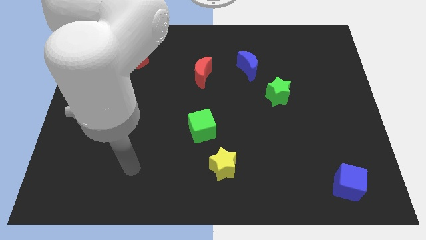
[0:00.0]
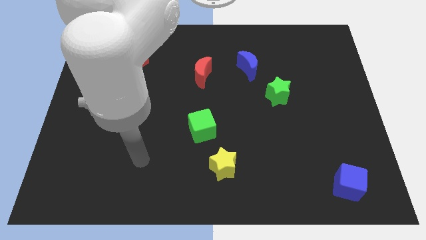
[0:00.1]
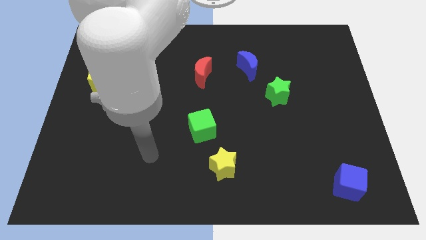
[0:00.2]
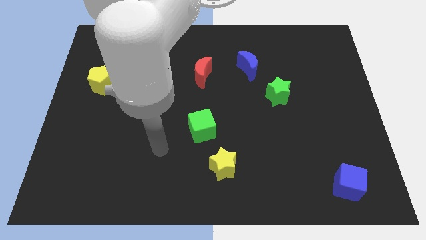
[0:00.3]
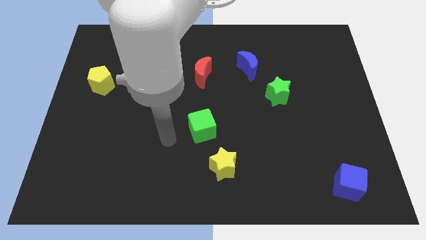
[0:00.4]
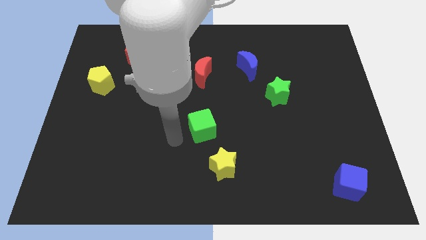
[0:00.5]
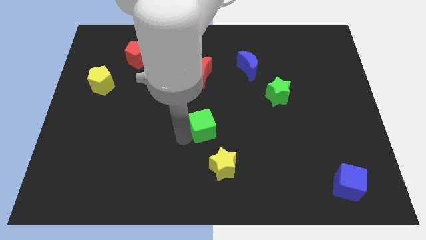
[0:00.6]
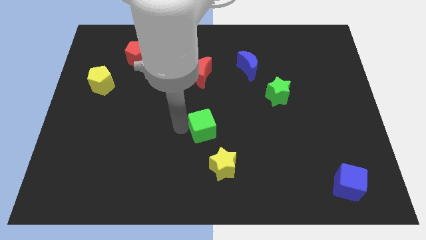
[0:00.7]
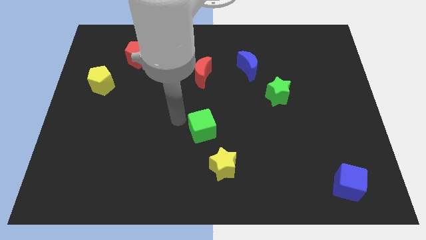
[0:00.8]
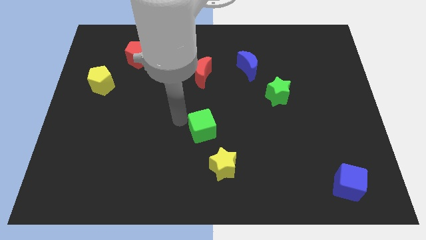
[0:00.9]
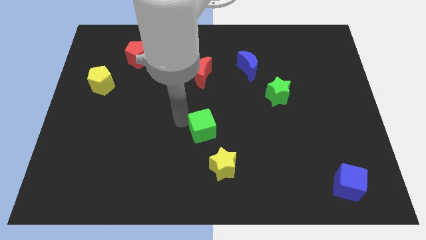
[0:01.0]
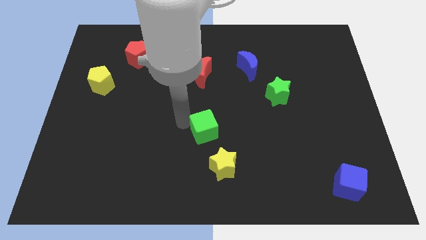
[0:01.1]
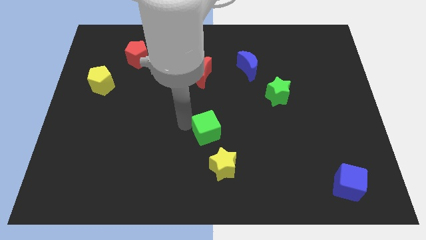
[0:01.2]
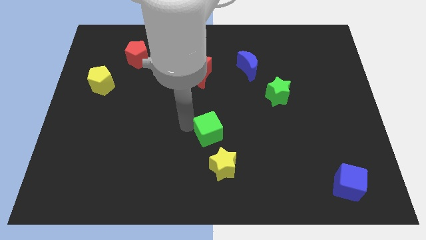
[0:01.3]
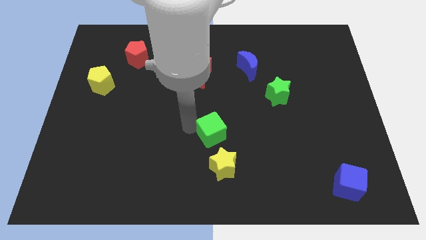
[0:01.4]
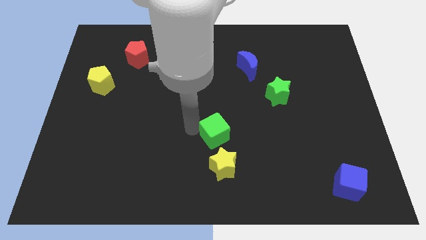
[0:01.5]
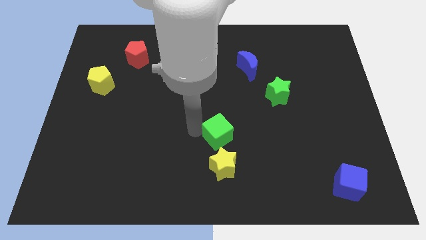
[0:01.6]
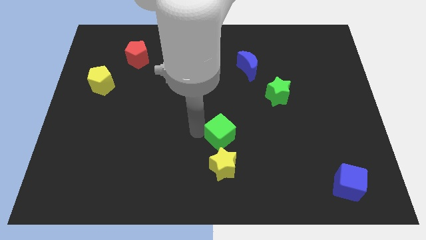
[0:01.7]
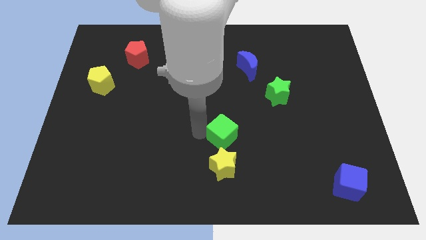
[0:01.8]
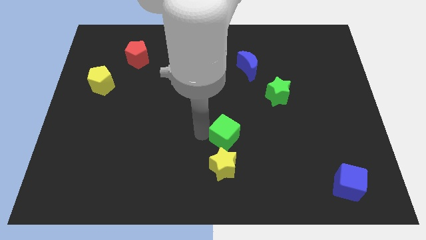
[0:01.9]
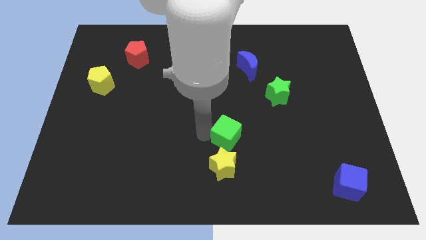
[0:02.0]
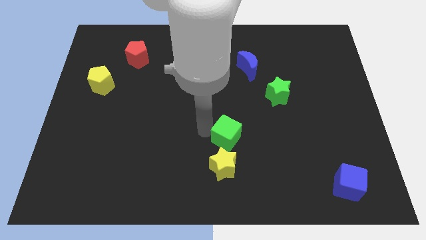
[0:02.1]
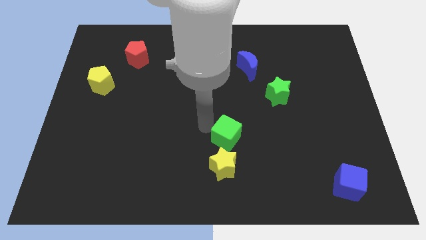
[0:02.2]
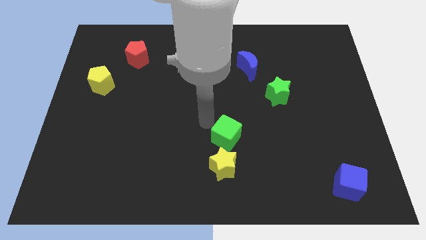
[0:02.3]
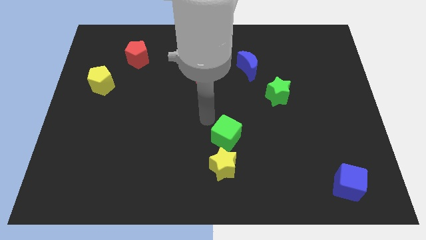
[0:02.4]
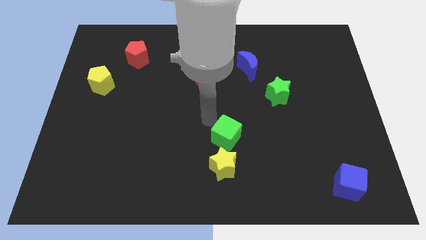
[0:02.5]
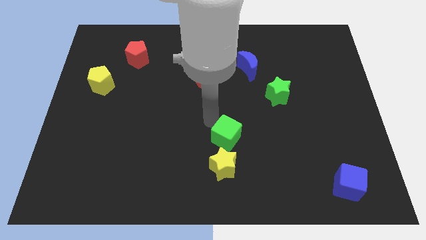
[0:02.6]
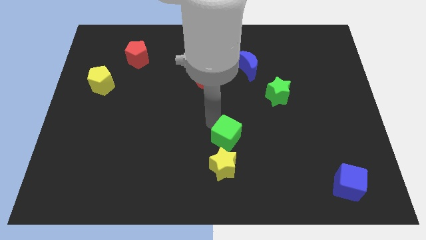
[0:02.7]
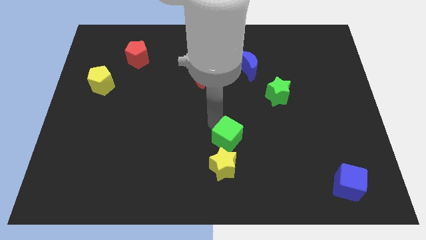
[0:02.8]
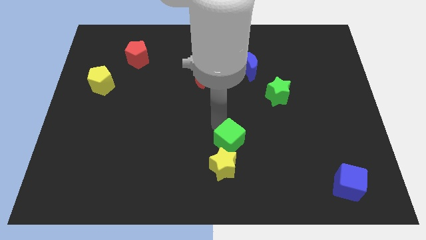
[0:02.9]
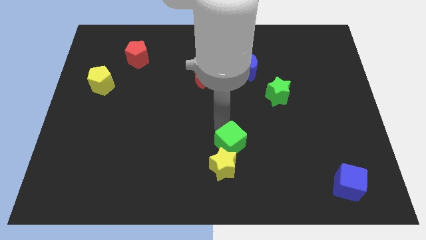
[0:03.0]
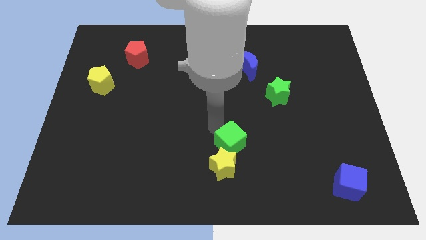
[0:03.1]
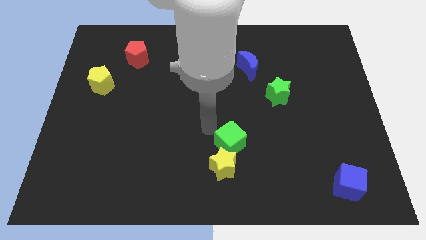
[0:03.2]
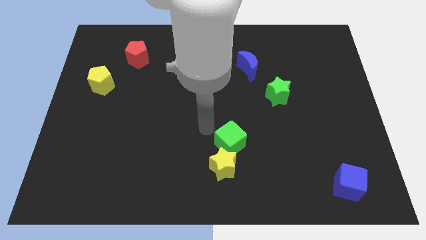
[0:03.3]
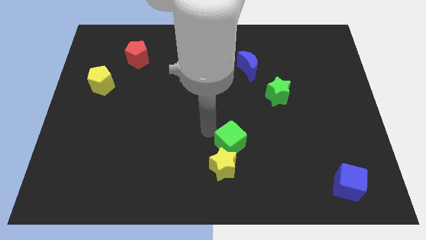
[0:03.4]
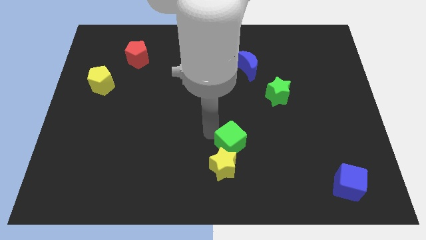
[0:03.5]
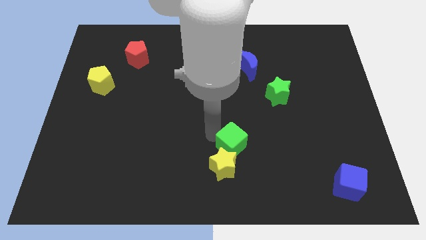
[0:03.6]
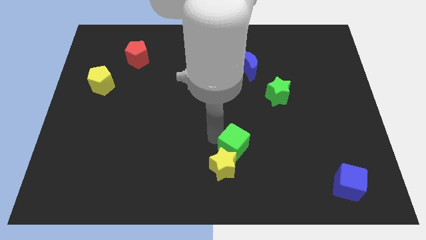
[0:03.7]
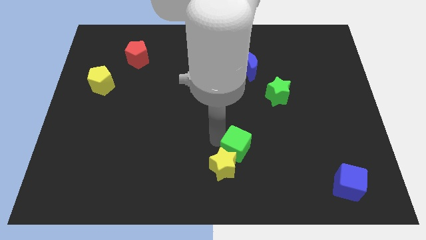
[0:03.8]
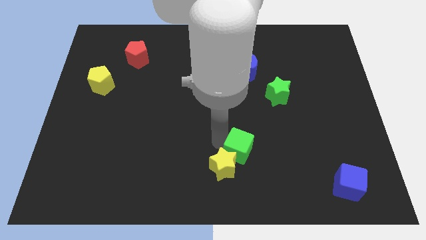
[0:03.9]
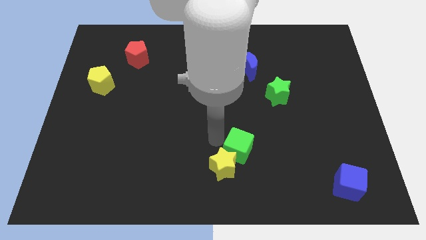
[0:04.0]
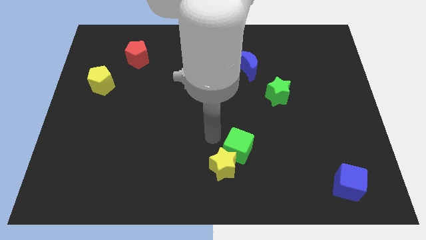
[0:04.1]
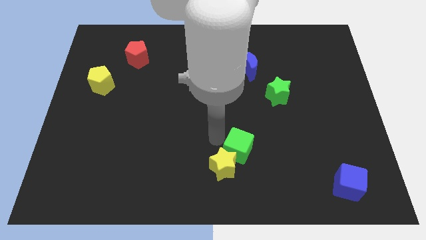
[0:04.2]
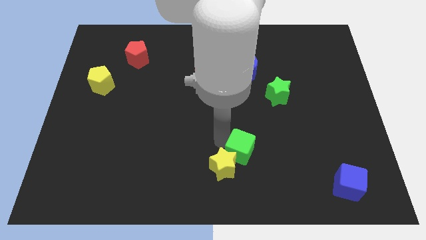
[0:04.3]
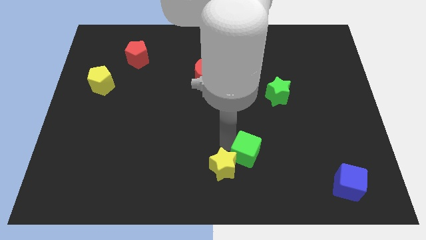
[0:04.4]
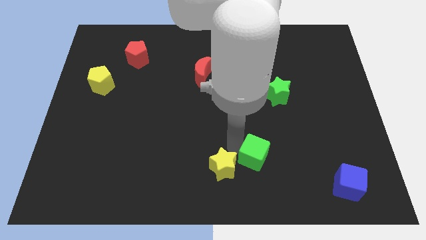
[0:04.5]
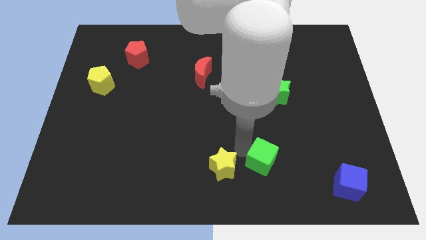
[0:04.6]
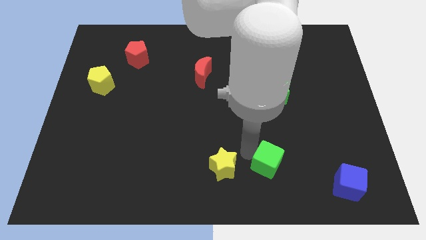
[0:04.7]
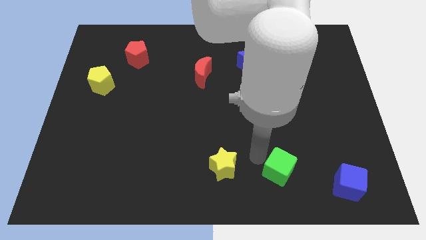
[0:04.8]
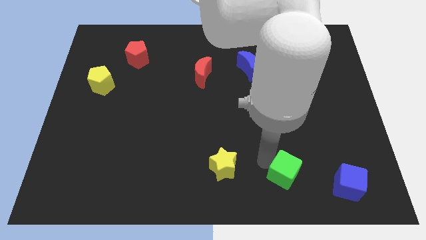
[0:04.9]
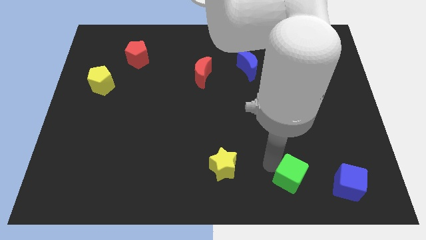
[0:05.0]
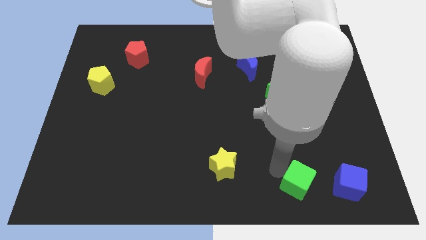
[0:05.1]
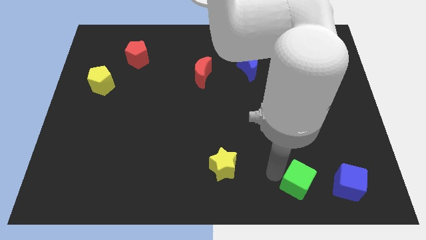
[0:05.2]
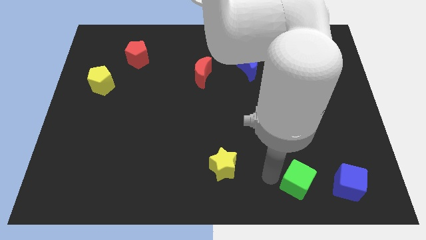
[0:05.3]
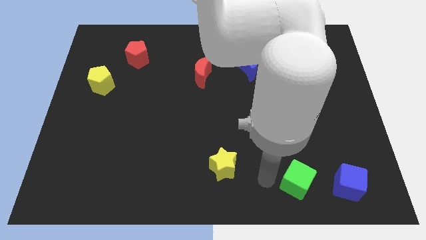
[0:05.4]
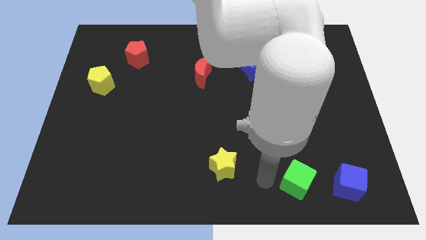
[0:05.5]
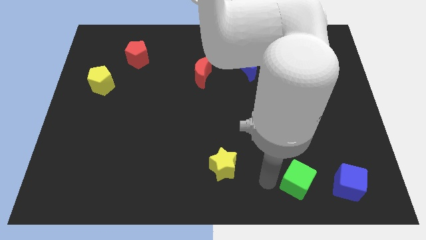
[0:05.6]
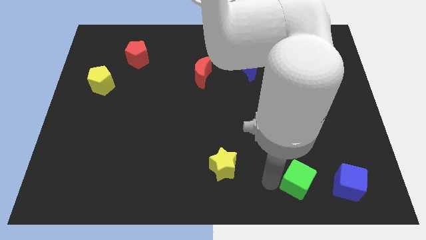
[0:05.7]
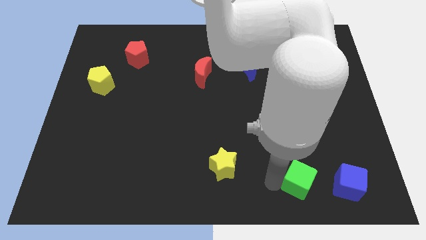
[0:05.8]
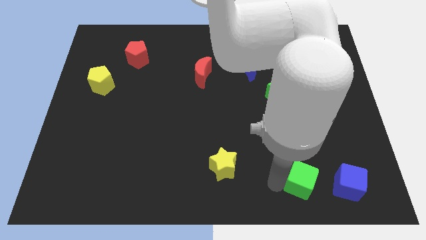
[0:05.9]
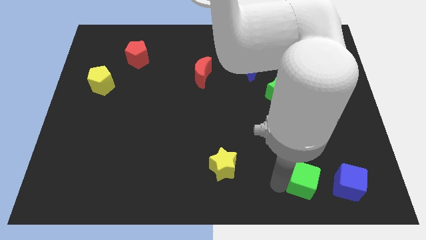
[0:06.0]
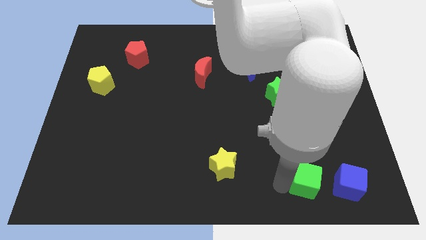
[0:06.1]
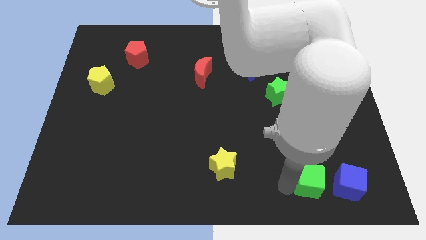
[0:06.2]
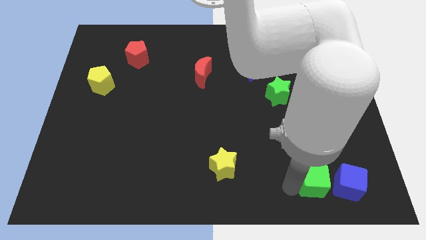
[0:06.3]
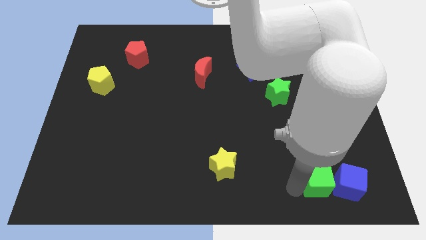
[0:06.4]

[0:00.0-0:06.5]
push the green cube to the blue cube

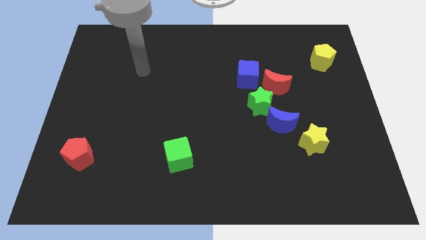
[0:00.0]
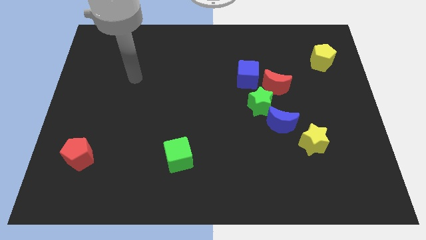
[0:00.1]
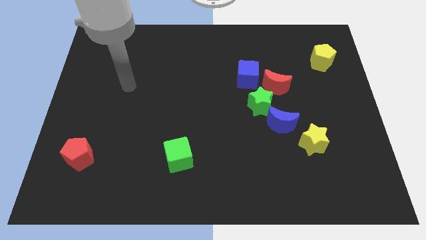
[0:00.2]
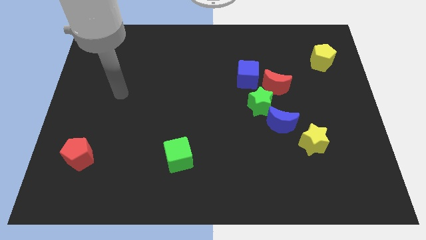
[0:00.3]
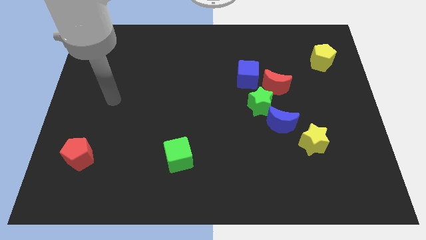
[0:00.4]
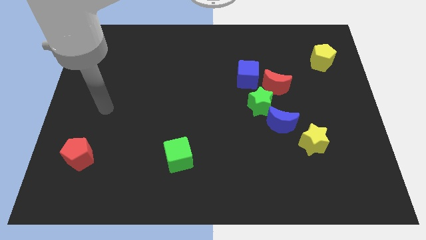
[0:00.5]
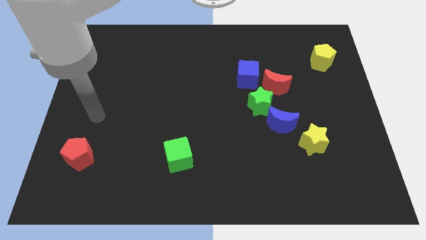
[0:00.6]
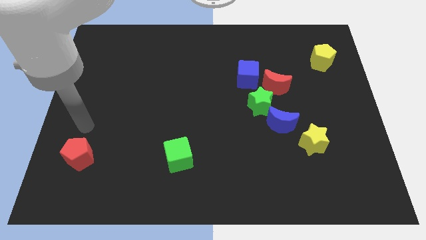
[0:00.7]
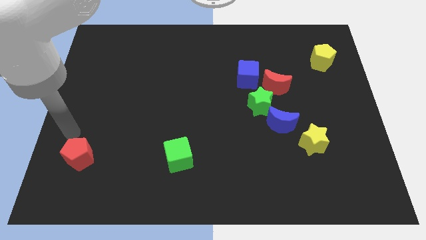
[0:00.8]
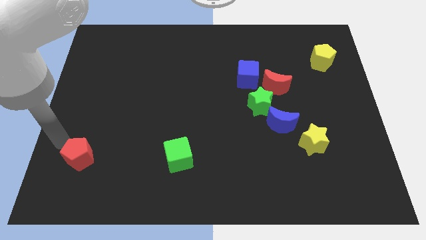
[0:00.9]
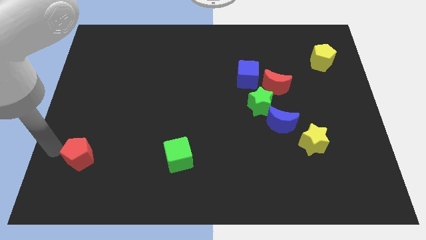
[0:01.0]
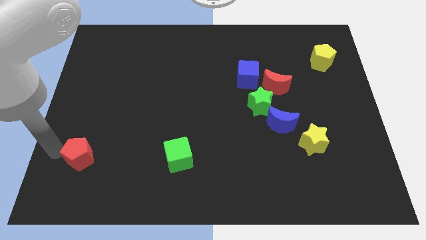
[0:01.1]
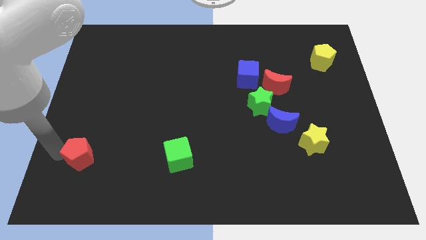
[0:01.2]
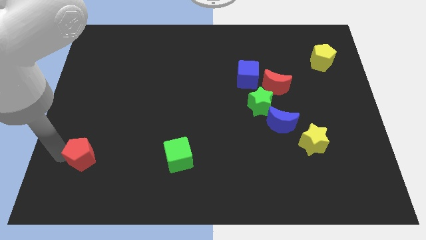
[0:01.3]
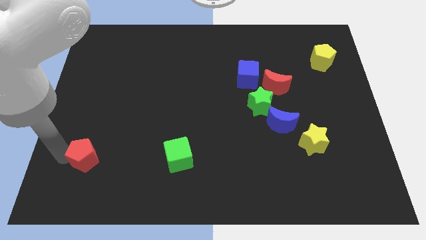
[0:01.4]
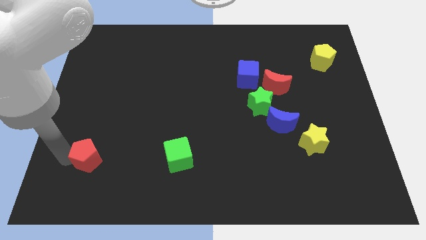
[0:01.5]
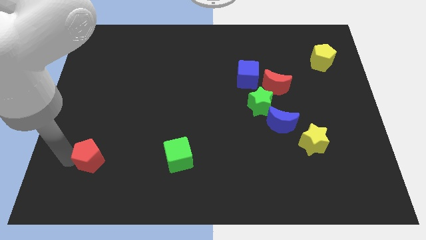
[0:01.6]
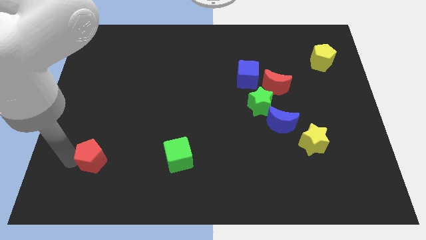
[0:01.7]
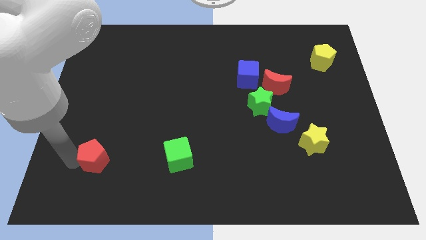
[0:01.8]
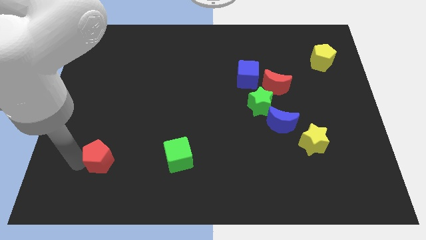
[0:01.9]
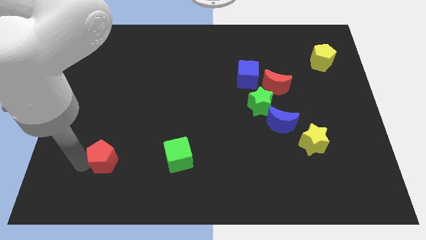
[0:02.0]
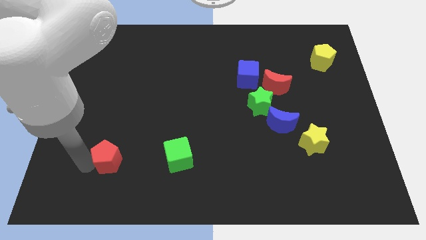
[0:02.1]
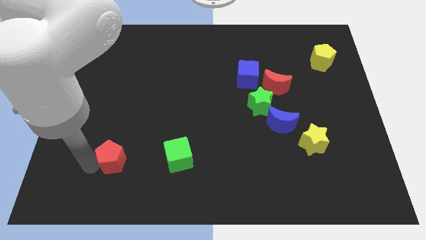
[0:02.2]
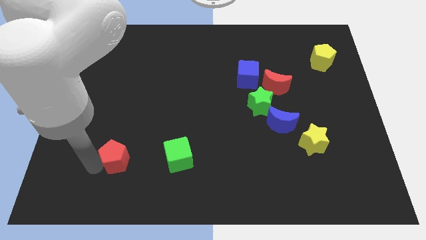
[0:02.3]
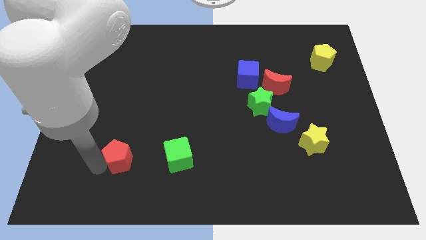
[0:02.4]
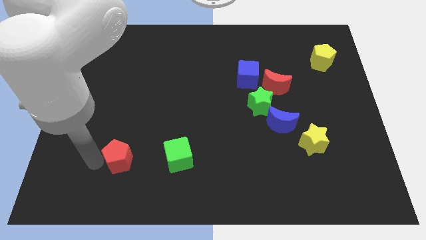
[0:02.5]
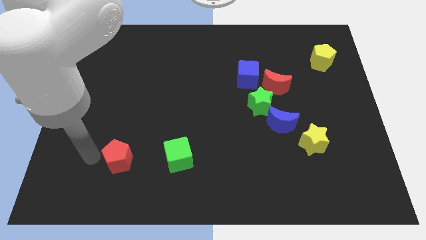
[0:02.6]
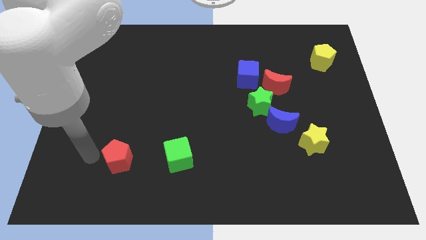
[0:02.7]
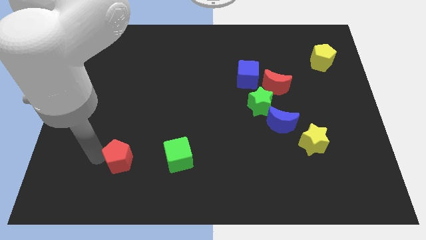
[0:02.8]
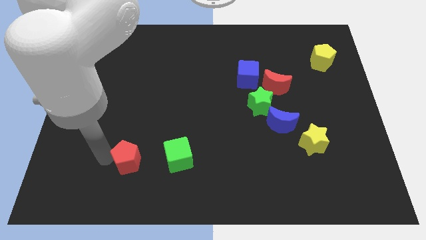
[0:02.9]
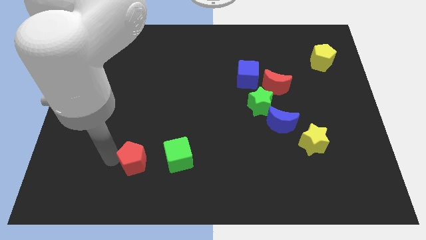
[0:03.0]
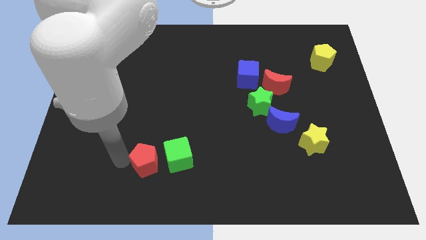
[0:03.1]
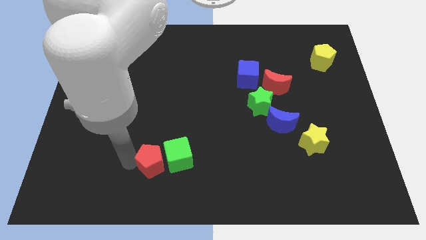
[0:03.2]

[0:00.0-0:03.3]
push the red pentagon next to the green cube
